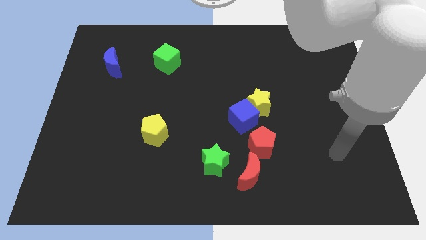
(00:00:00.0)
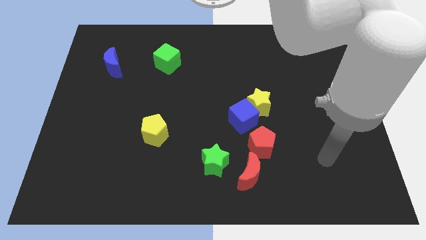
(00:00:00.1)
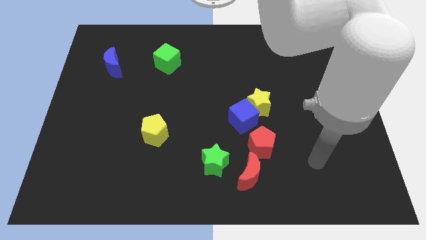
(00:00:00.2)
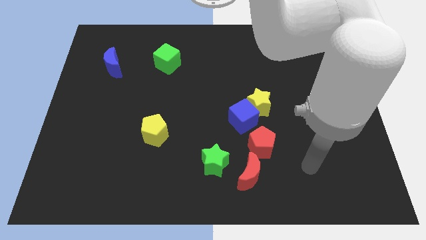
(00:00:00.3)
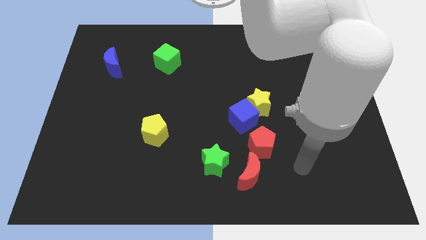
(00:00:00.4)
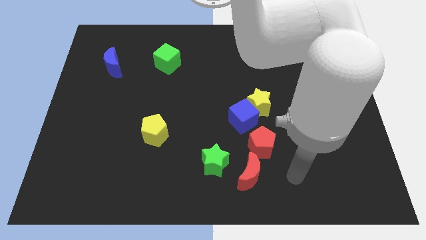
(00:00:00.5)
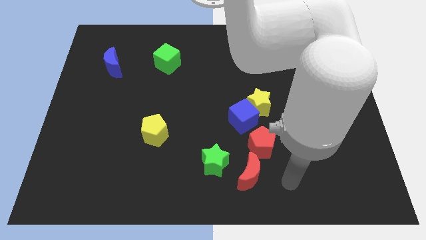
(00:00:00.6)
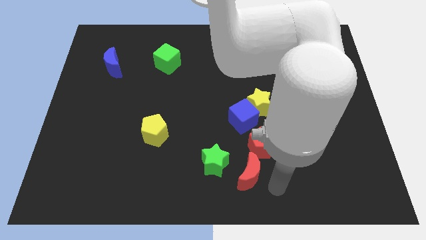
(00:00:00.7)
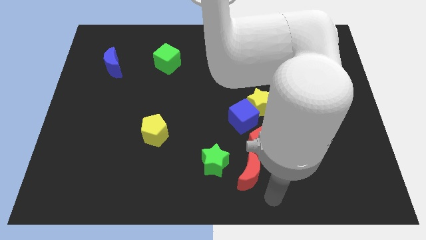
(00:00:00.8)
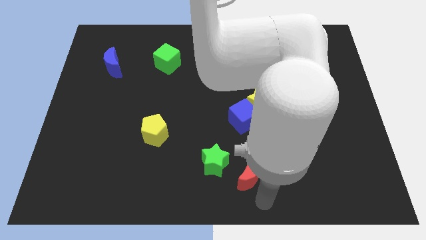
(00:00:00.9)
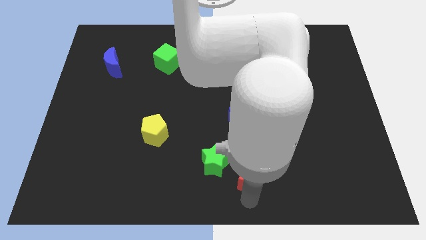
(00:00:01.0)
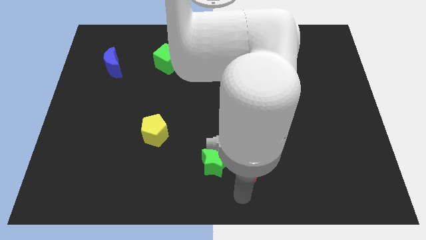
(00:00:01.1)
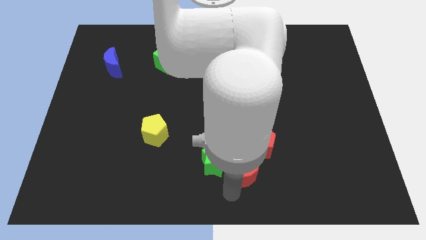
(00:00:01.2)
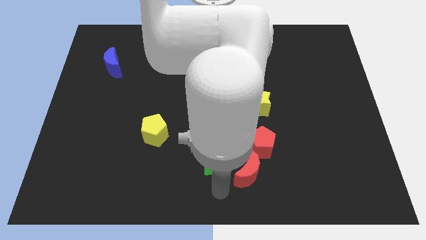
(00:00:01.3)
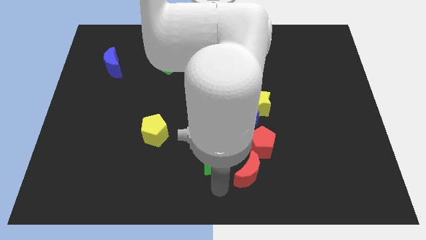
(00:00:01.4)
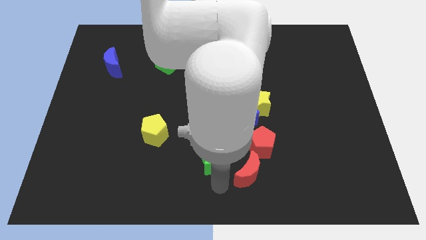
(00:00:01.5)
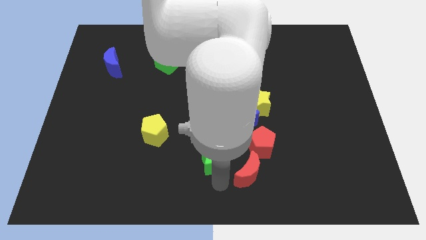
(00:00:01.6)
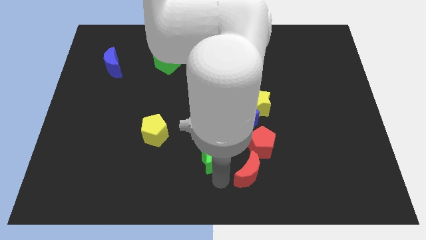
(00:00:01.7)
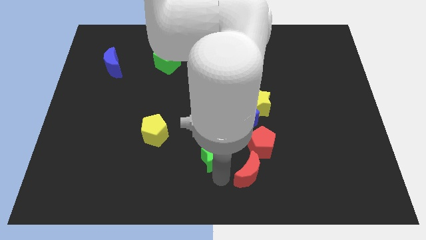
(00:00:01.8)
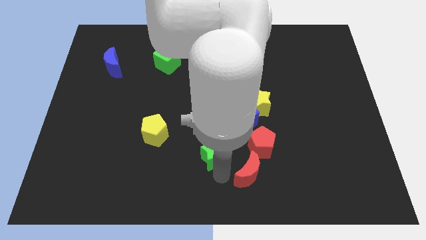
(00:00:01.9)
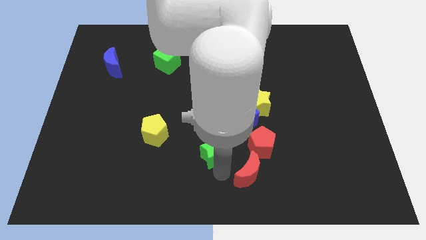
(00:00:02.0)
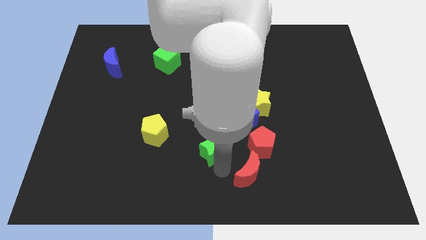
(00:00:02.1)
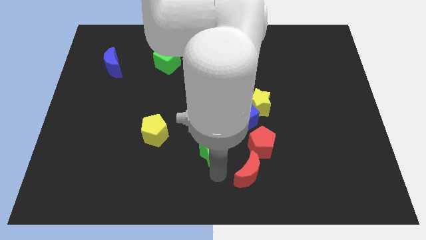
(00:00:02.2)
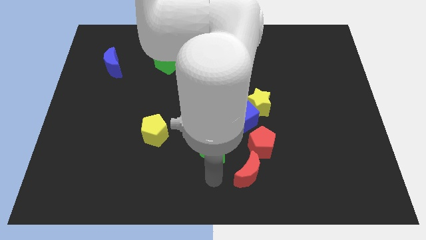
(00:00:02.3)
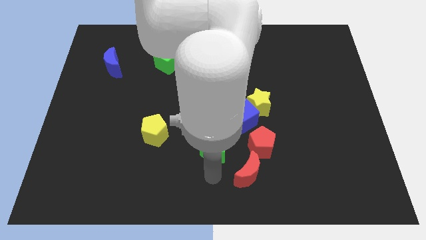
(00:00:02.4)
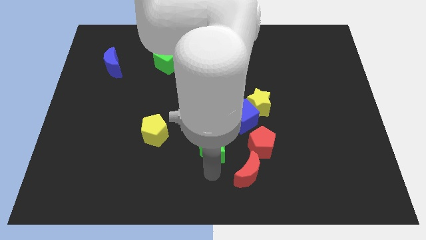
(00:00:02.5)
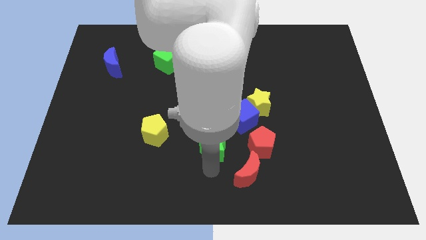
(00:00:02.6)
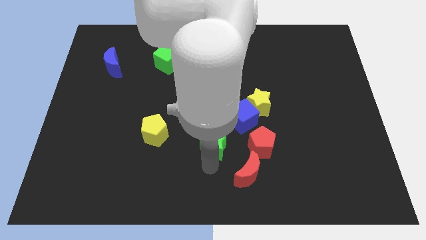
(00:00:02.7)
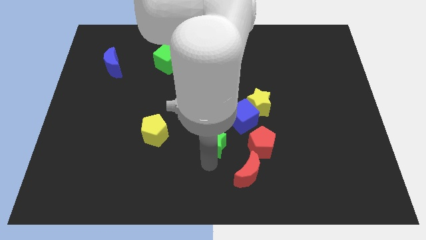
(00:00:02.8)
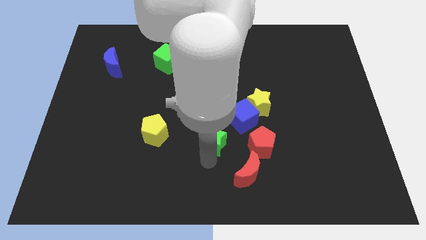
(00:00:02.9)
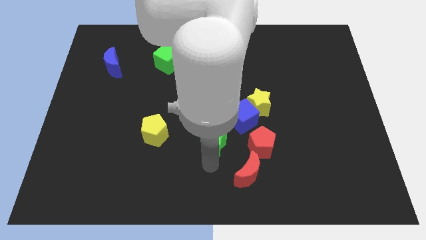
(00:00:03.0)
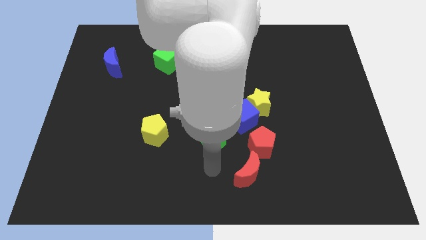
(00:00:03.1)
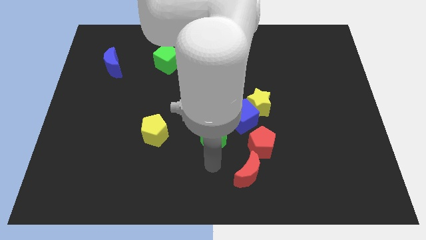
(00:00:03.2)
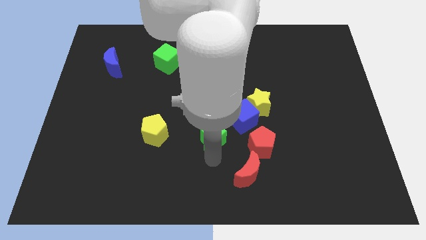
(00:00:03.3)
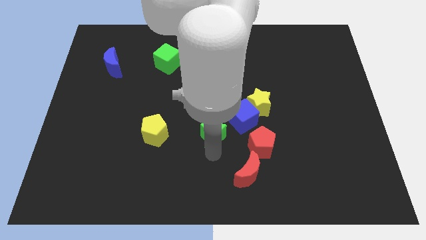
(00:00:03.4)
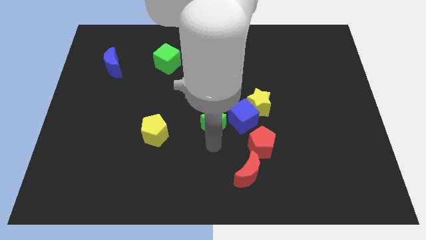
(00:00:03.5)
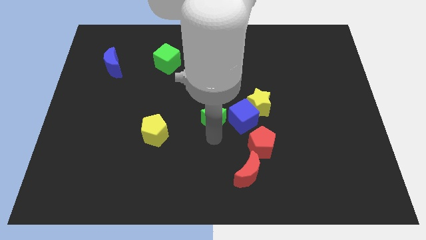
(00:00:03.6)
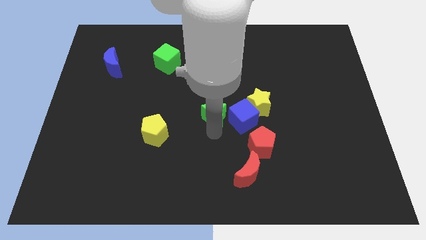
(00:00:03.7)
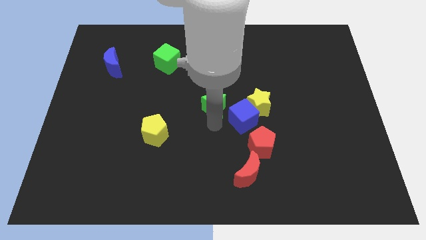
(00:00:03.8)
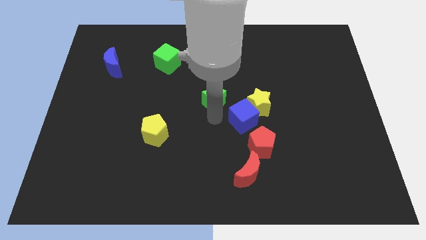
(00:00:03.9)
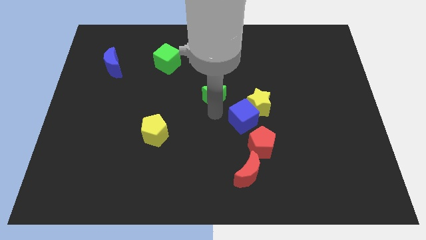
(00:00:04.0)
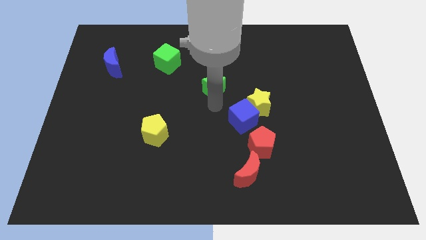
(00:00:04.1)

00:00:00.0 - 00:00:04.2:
slide the green star upwards

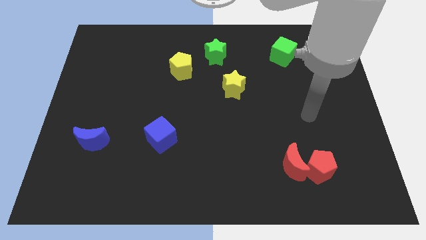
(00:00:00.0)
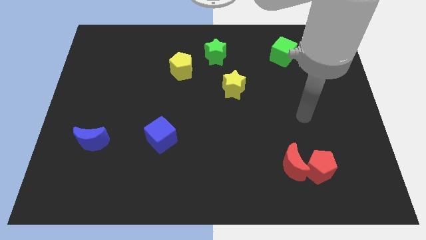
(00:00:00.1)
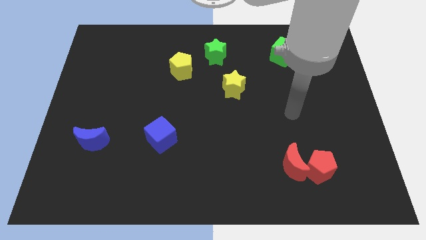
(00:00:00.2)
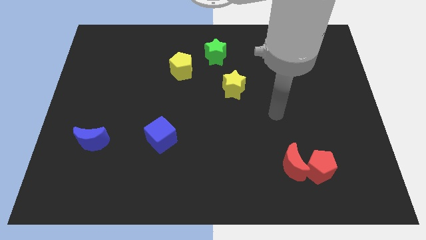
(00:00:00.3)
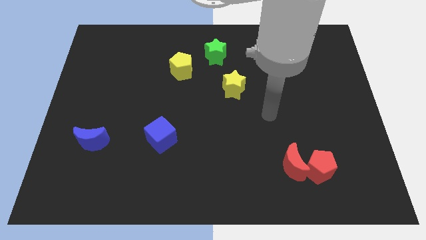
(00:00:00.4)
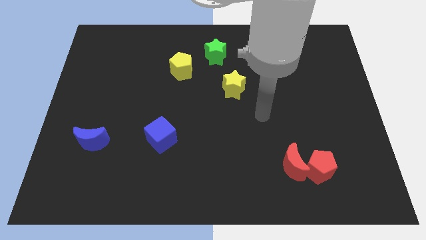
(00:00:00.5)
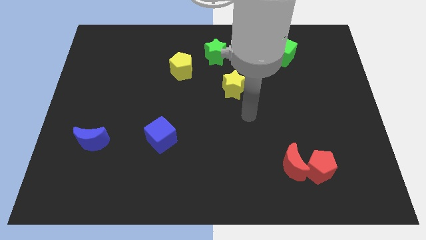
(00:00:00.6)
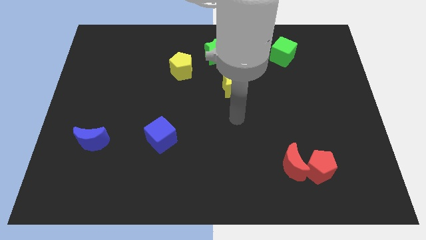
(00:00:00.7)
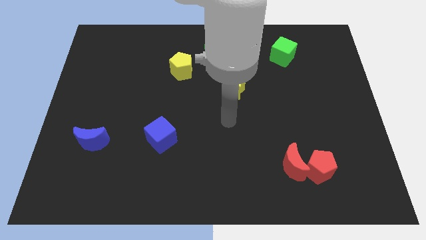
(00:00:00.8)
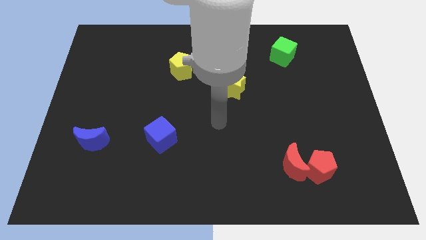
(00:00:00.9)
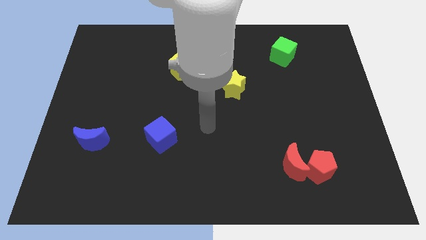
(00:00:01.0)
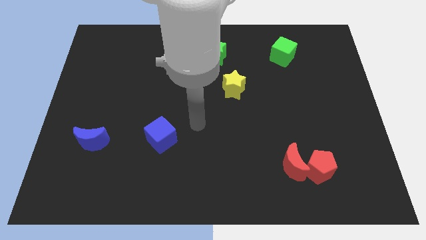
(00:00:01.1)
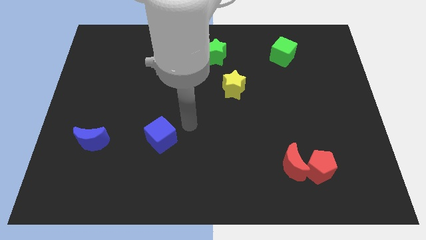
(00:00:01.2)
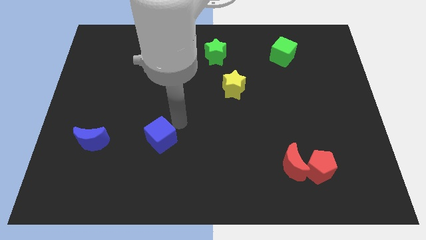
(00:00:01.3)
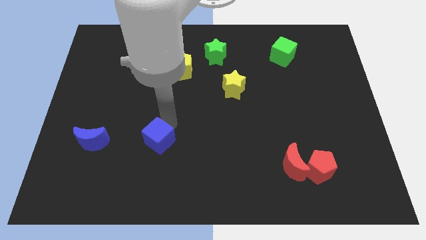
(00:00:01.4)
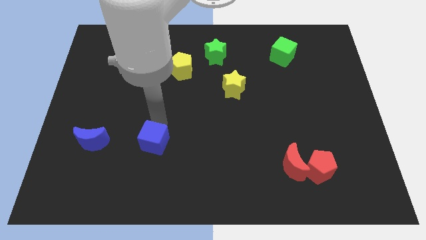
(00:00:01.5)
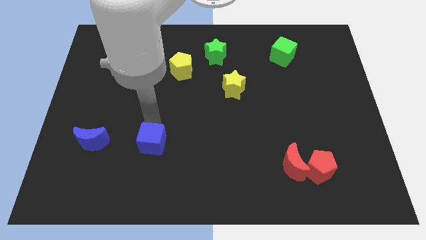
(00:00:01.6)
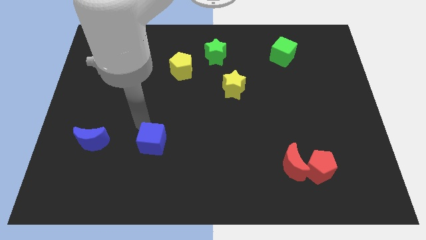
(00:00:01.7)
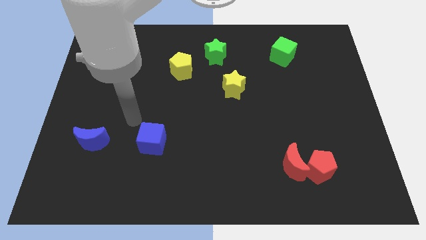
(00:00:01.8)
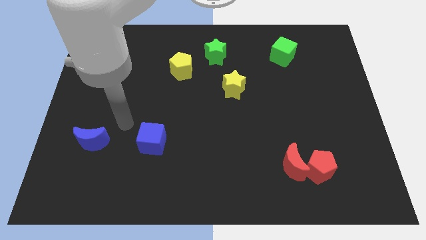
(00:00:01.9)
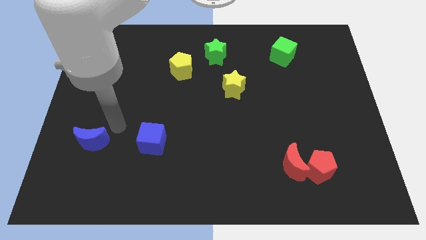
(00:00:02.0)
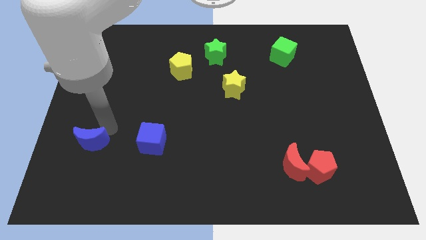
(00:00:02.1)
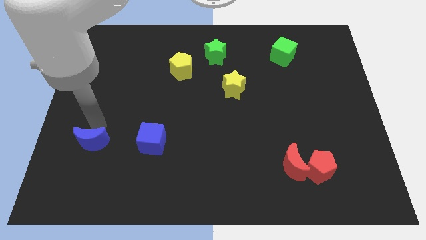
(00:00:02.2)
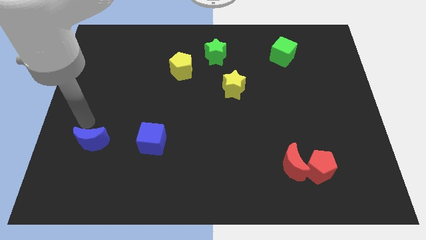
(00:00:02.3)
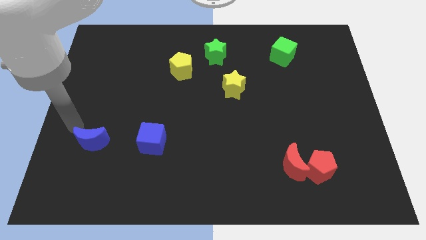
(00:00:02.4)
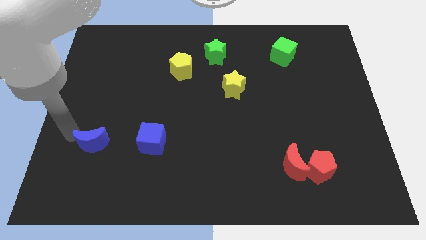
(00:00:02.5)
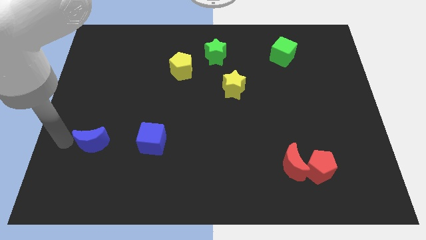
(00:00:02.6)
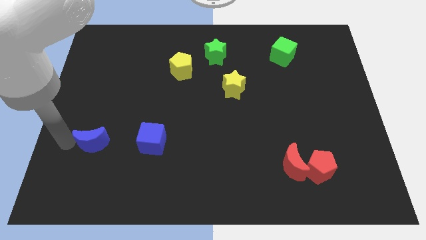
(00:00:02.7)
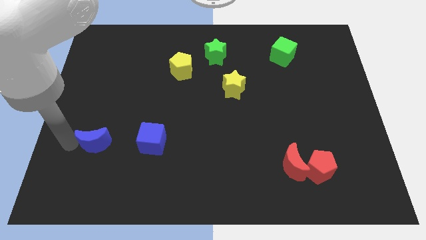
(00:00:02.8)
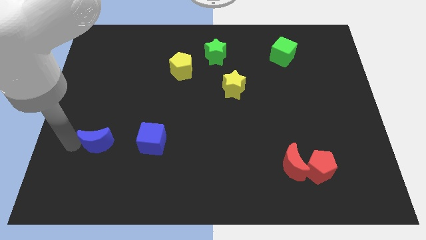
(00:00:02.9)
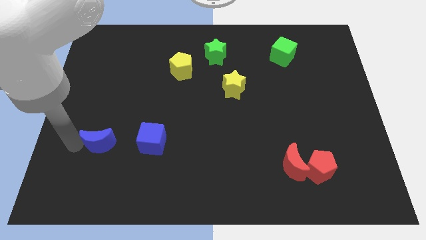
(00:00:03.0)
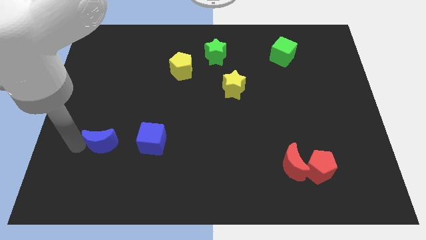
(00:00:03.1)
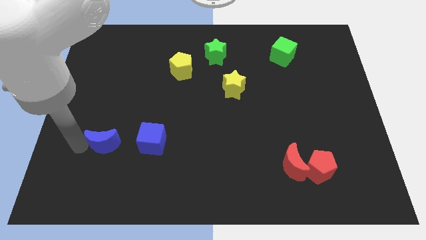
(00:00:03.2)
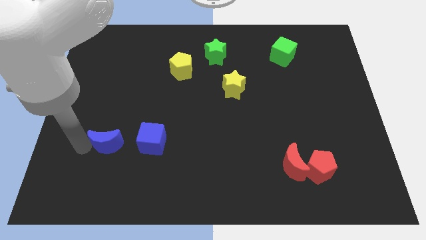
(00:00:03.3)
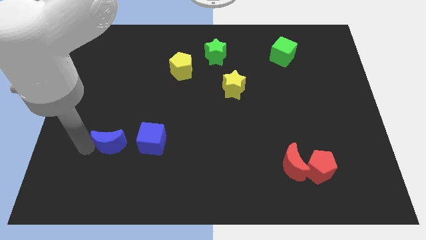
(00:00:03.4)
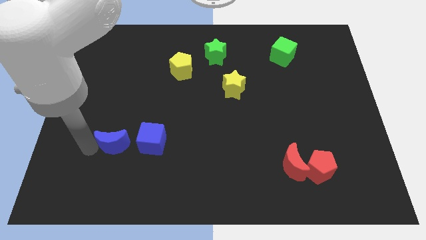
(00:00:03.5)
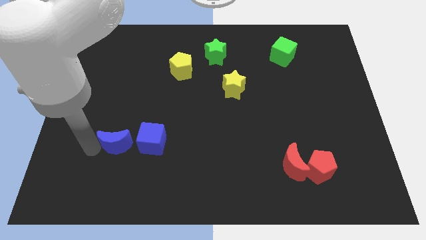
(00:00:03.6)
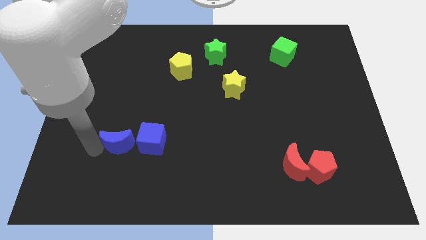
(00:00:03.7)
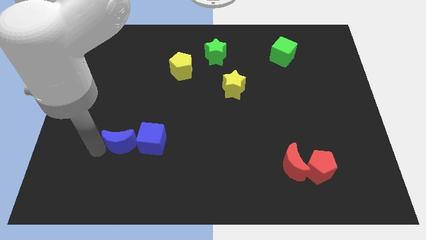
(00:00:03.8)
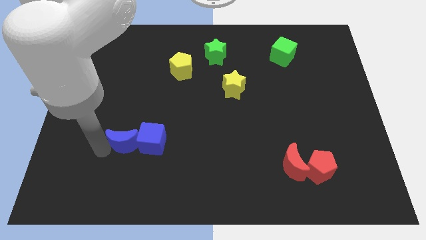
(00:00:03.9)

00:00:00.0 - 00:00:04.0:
slightly slide the blue moon right
